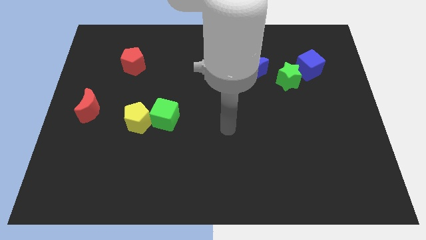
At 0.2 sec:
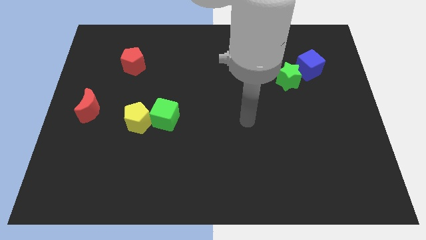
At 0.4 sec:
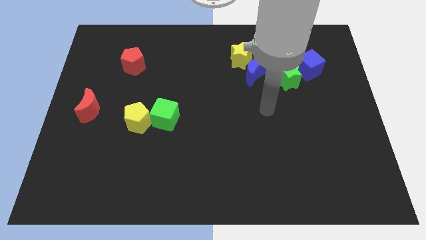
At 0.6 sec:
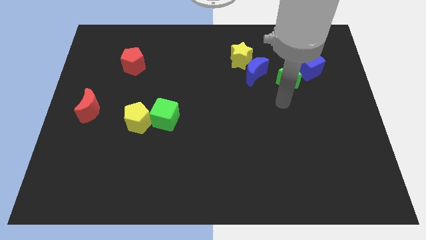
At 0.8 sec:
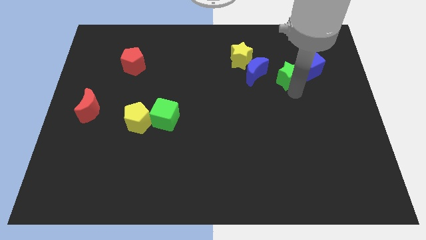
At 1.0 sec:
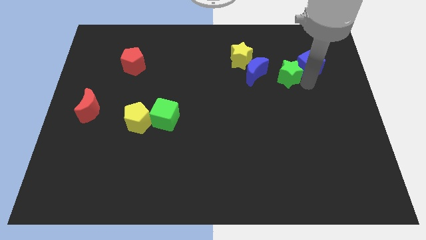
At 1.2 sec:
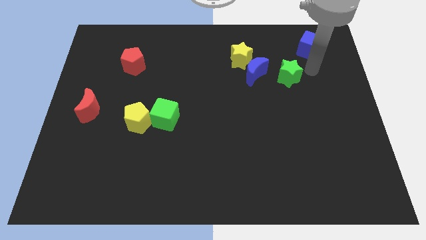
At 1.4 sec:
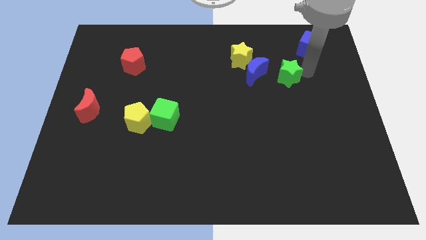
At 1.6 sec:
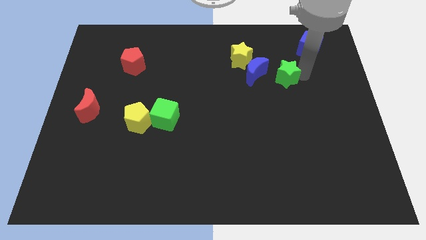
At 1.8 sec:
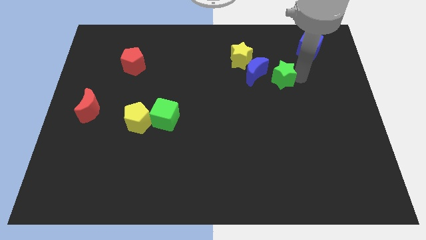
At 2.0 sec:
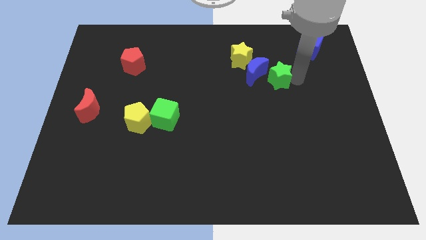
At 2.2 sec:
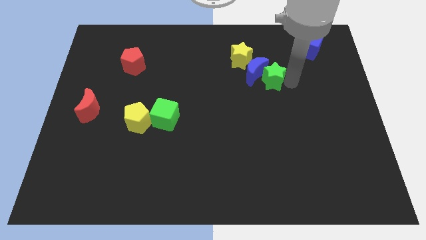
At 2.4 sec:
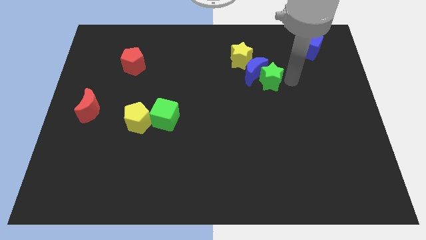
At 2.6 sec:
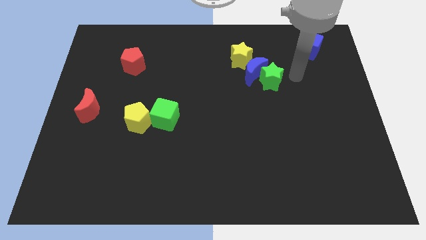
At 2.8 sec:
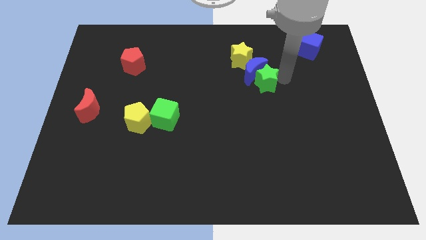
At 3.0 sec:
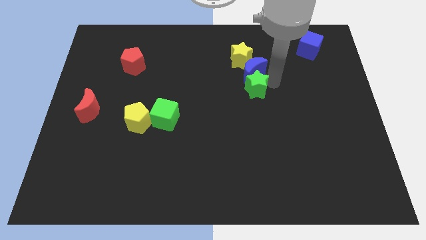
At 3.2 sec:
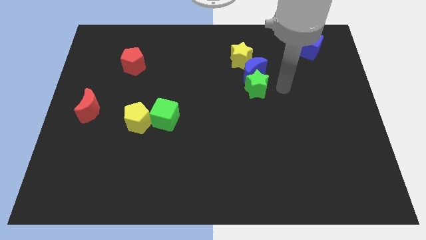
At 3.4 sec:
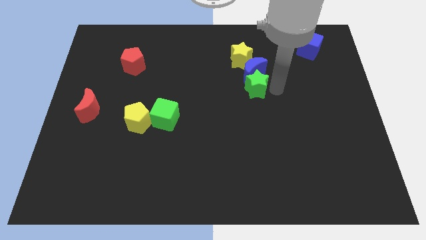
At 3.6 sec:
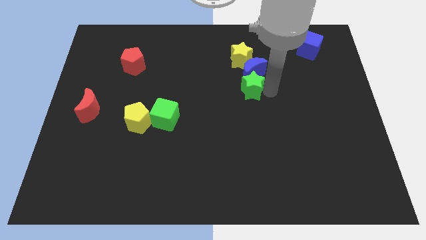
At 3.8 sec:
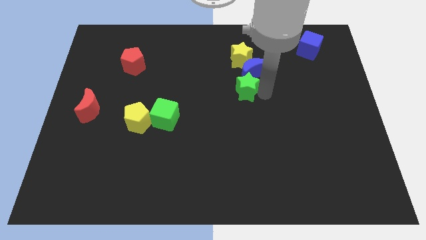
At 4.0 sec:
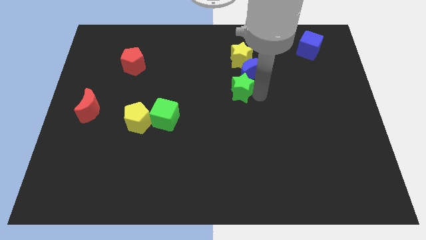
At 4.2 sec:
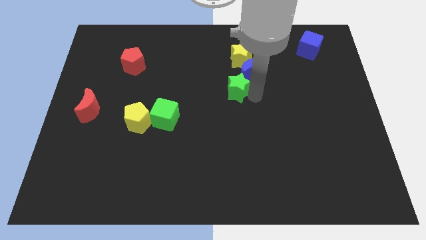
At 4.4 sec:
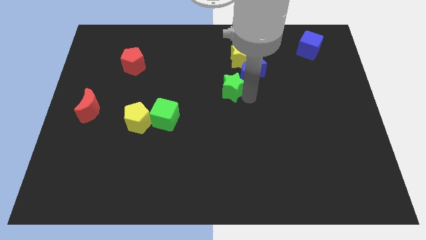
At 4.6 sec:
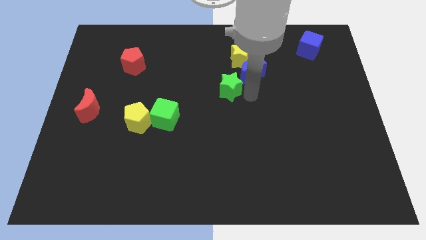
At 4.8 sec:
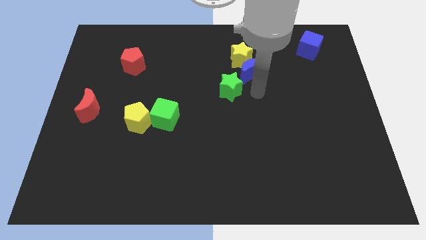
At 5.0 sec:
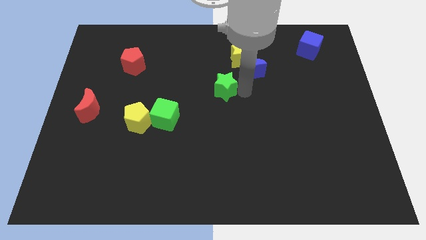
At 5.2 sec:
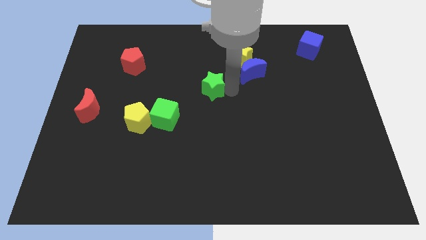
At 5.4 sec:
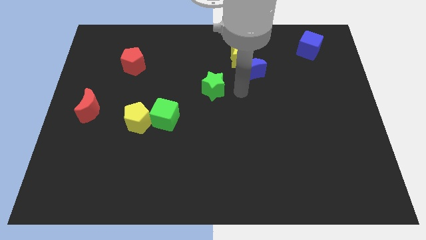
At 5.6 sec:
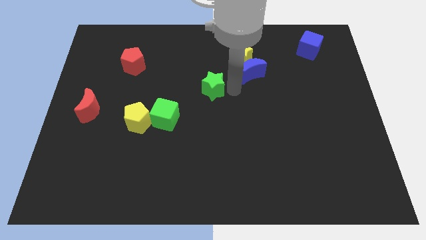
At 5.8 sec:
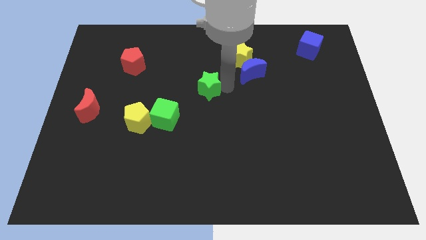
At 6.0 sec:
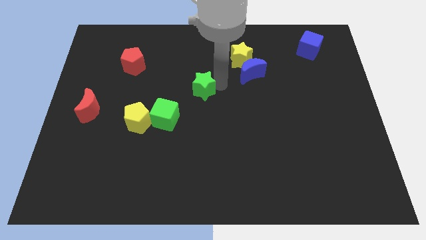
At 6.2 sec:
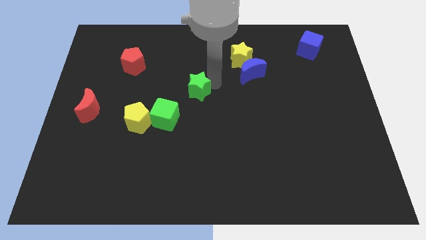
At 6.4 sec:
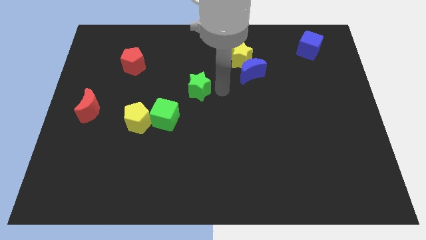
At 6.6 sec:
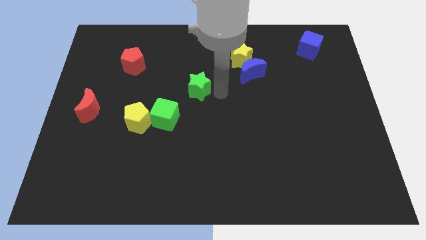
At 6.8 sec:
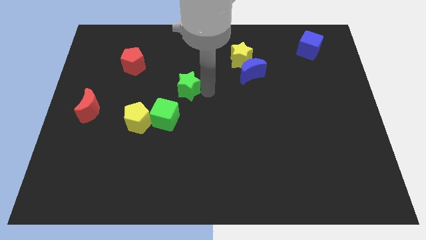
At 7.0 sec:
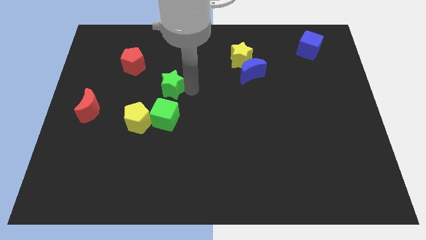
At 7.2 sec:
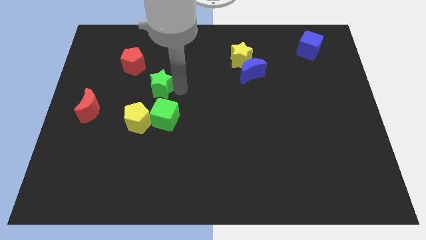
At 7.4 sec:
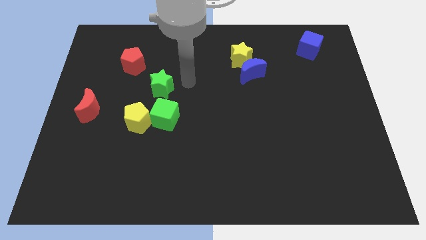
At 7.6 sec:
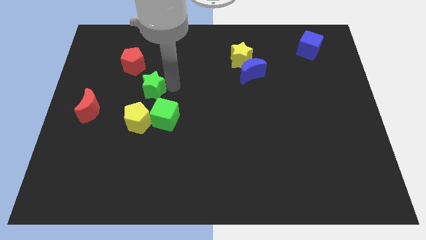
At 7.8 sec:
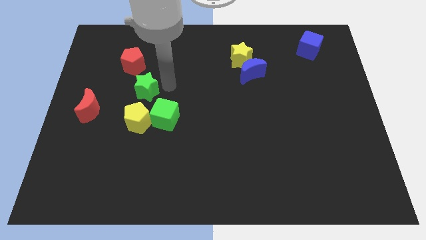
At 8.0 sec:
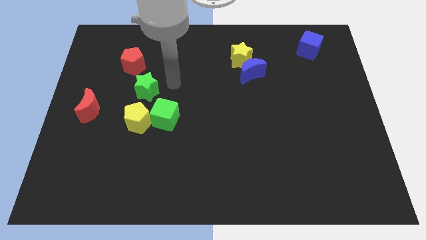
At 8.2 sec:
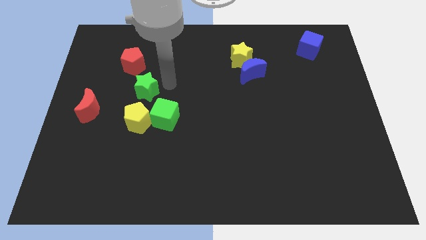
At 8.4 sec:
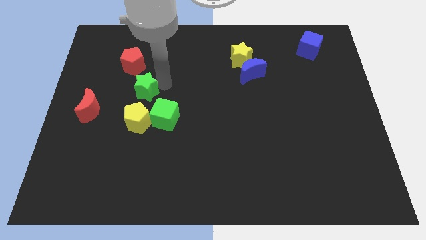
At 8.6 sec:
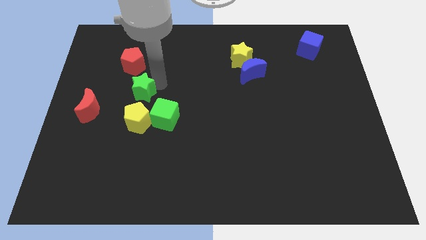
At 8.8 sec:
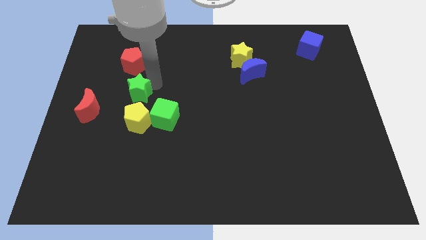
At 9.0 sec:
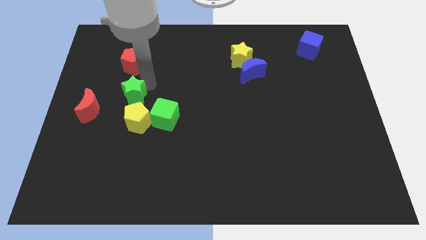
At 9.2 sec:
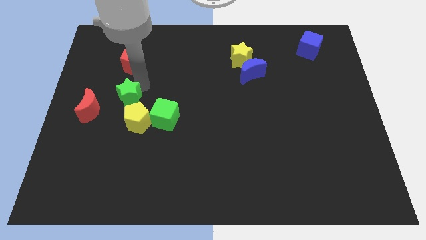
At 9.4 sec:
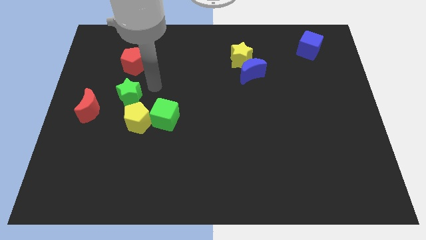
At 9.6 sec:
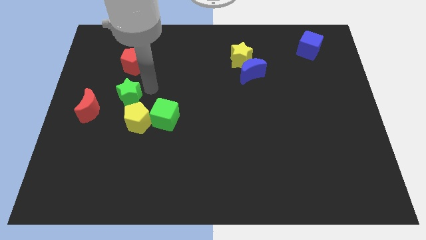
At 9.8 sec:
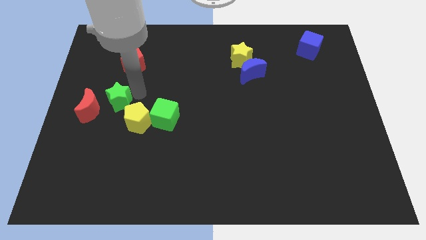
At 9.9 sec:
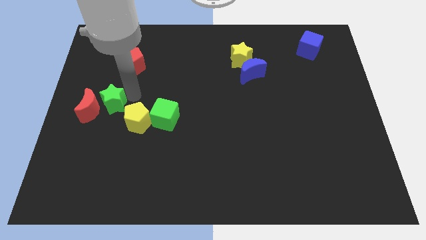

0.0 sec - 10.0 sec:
slide the green star to the red moon

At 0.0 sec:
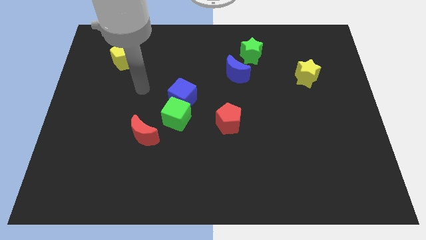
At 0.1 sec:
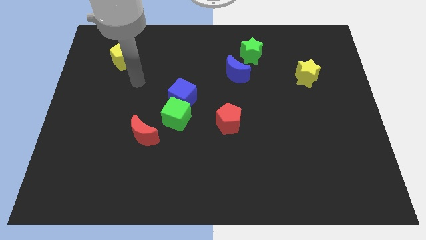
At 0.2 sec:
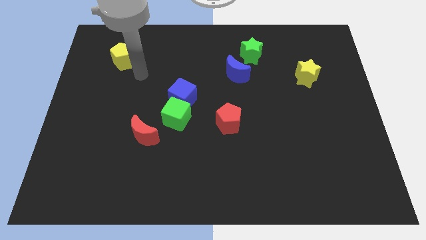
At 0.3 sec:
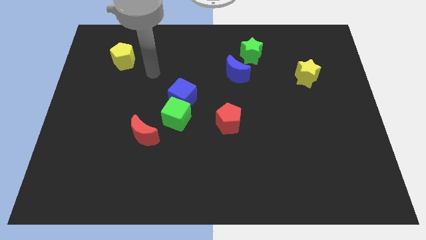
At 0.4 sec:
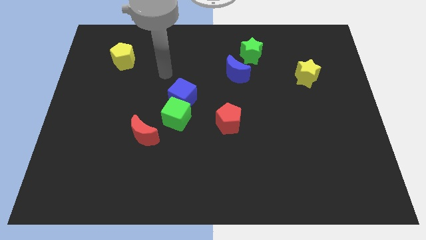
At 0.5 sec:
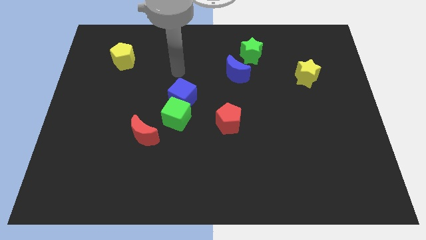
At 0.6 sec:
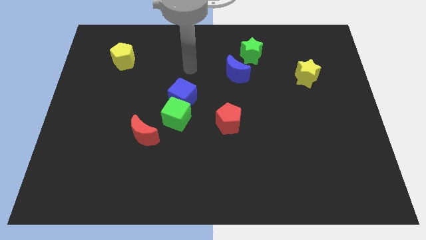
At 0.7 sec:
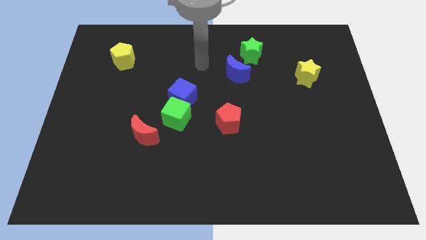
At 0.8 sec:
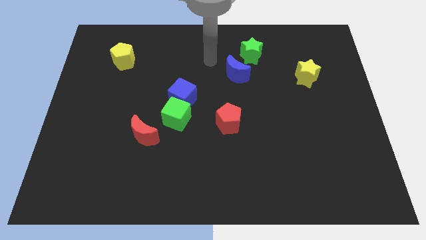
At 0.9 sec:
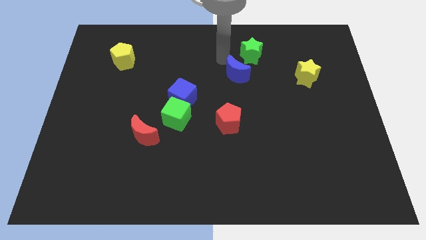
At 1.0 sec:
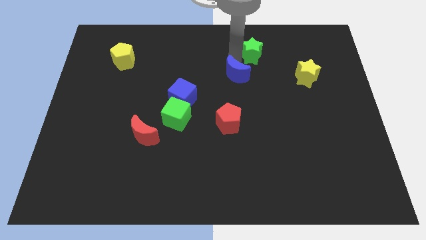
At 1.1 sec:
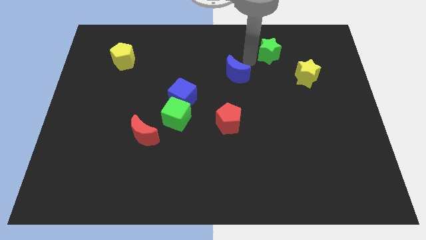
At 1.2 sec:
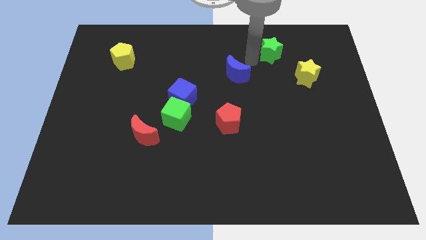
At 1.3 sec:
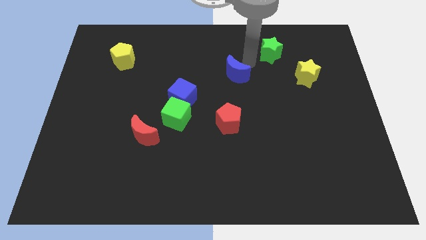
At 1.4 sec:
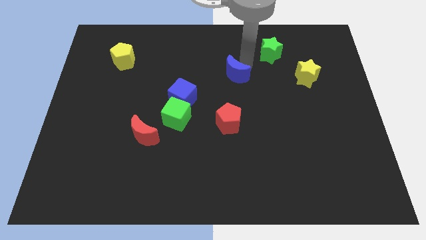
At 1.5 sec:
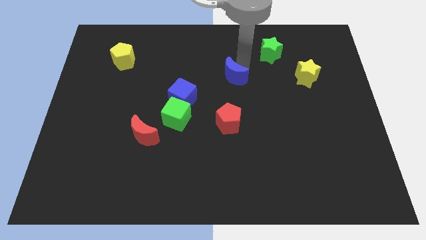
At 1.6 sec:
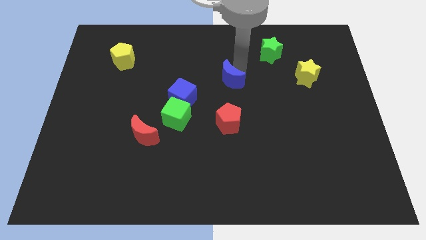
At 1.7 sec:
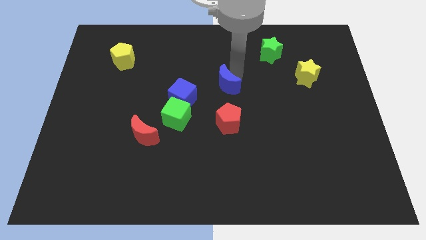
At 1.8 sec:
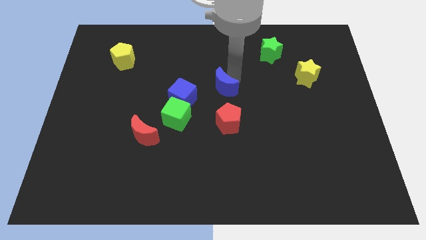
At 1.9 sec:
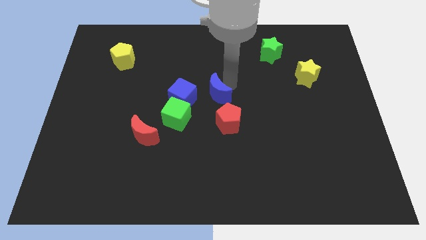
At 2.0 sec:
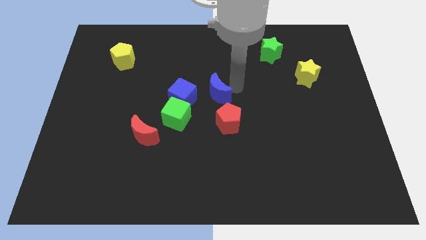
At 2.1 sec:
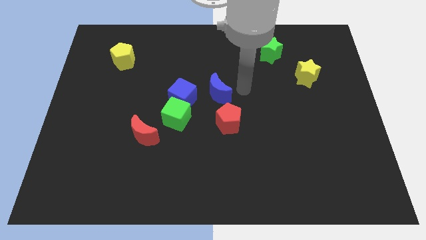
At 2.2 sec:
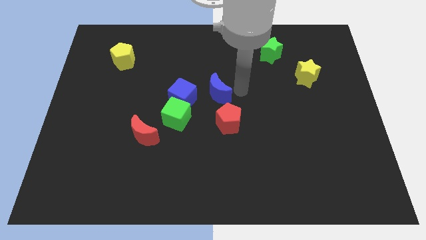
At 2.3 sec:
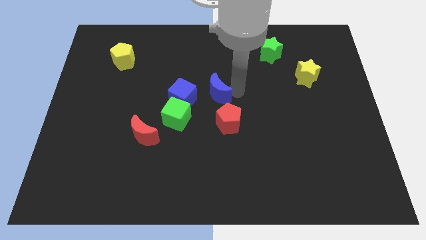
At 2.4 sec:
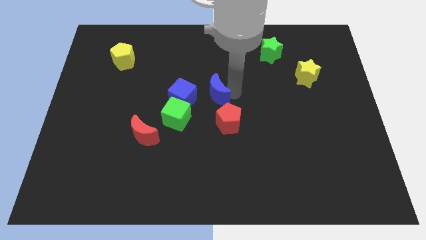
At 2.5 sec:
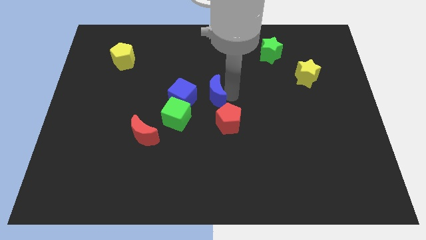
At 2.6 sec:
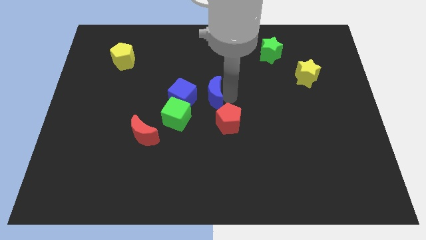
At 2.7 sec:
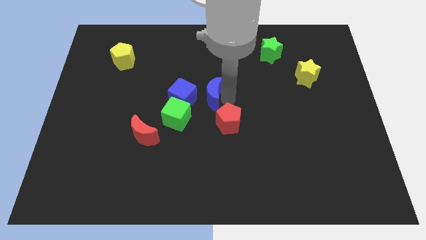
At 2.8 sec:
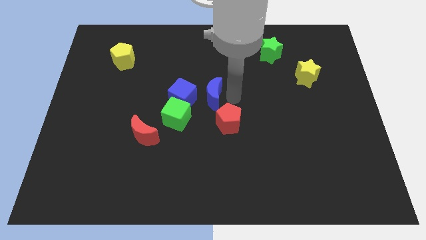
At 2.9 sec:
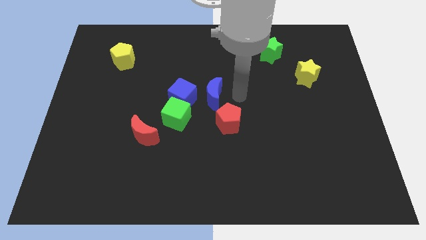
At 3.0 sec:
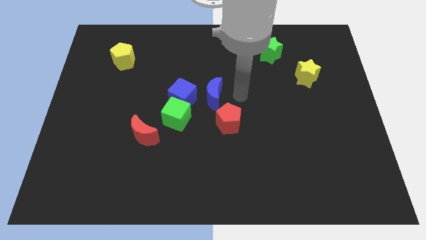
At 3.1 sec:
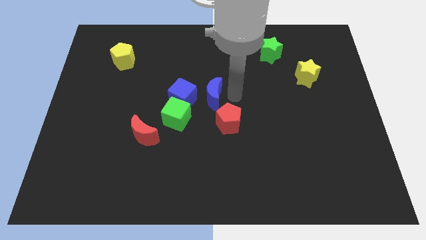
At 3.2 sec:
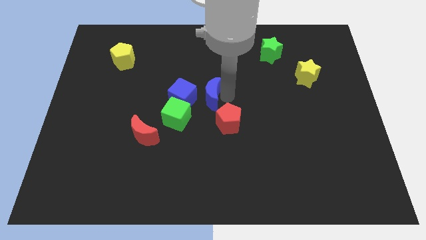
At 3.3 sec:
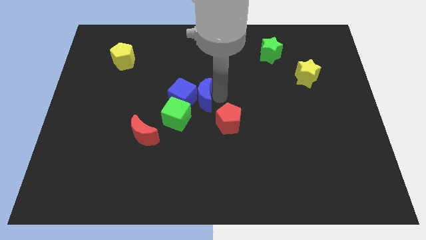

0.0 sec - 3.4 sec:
put the blue moon close to the blue cube
